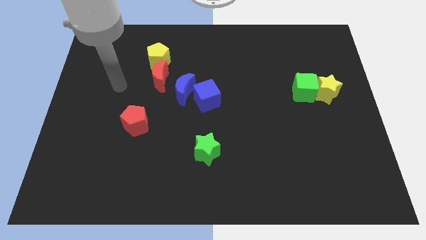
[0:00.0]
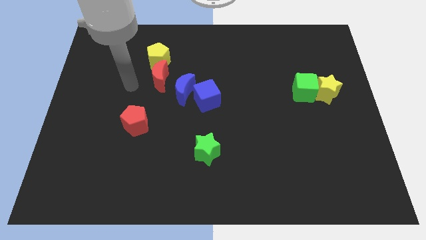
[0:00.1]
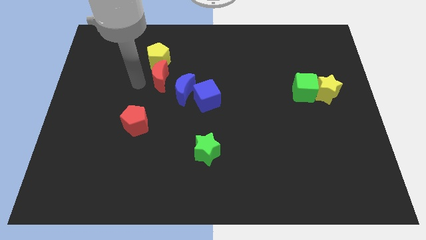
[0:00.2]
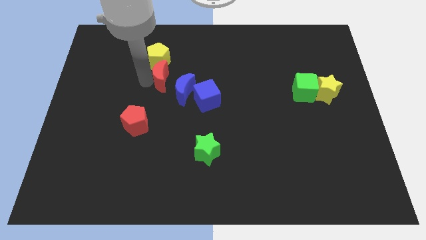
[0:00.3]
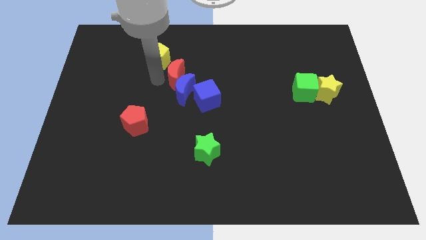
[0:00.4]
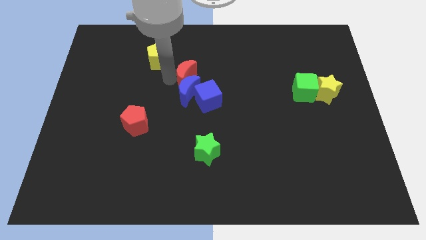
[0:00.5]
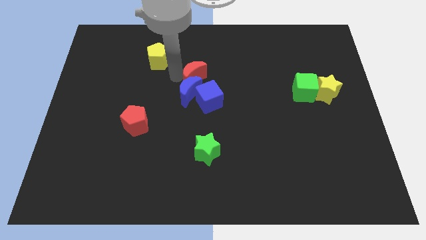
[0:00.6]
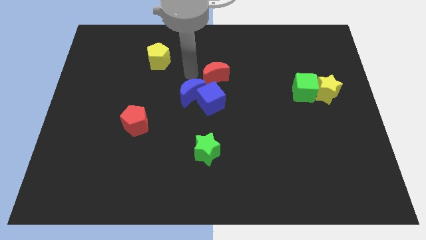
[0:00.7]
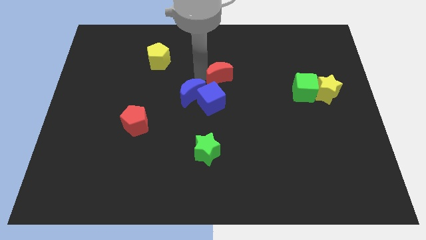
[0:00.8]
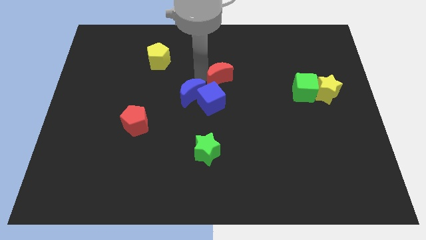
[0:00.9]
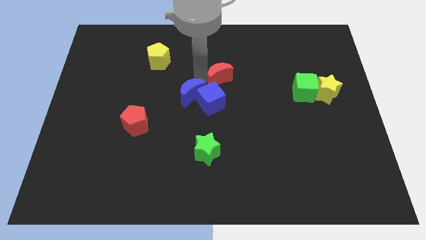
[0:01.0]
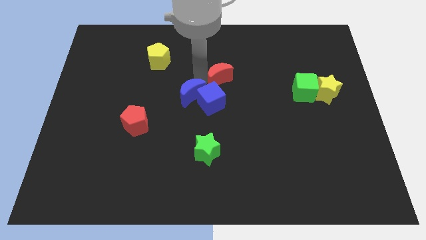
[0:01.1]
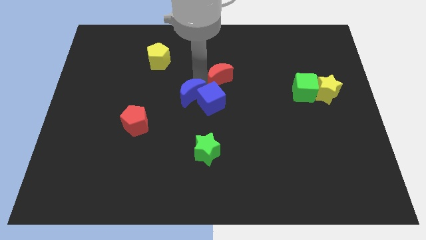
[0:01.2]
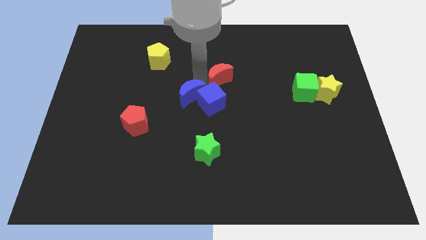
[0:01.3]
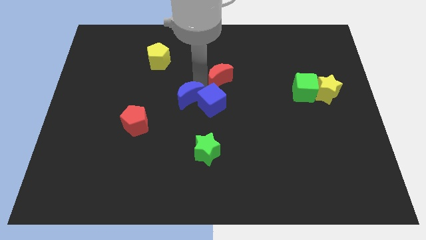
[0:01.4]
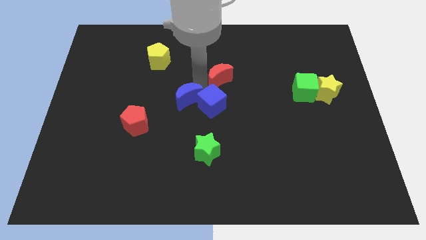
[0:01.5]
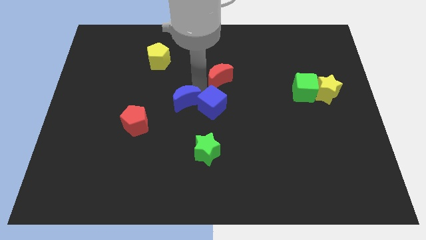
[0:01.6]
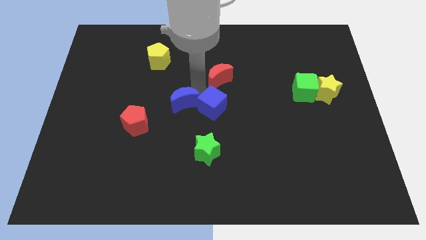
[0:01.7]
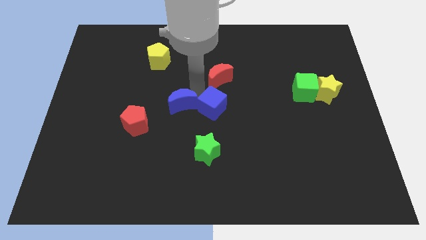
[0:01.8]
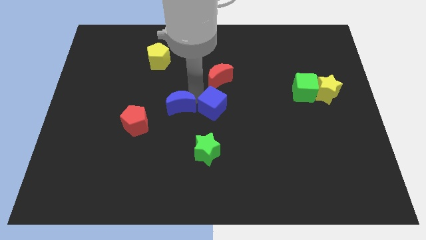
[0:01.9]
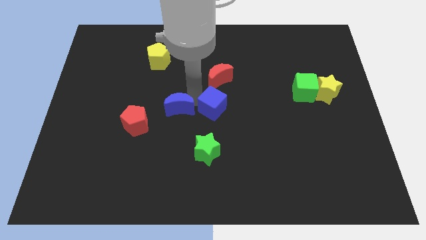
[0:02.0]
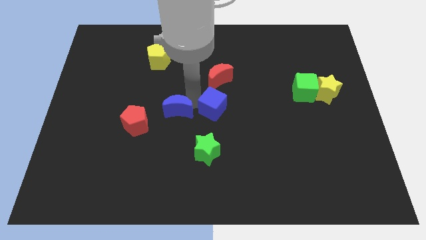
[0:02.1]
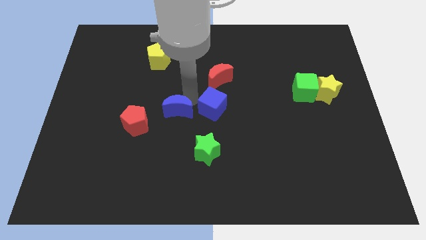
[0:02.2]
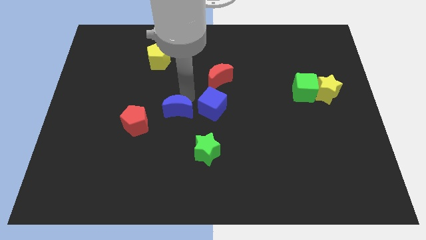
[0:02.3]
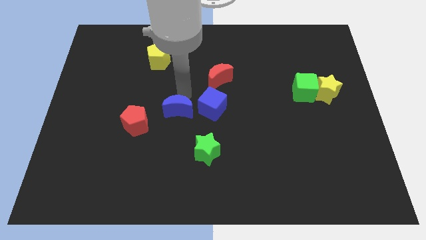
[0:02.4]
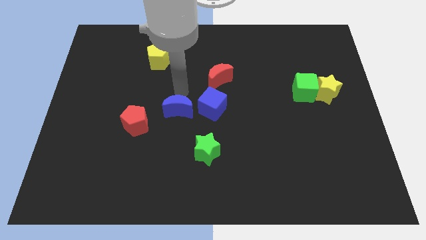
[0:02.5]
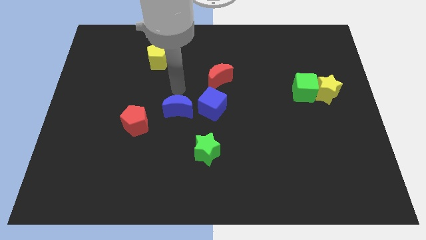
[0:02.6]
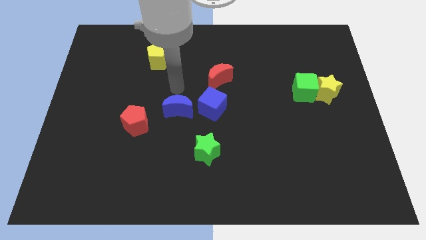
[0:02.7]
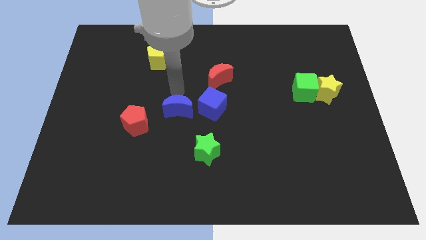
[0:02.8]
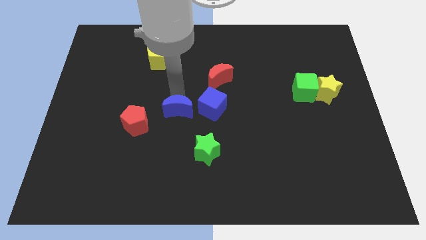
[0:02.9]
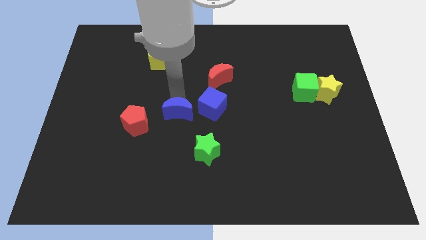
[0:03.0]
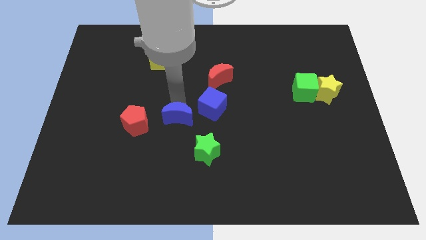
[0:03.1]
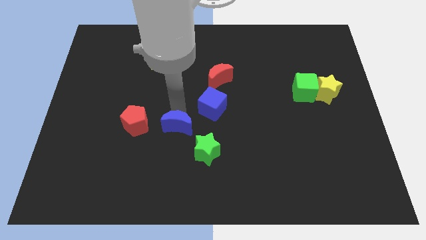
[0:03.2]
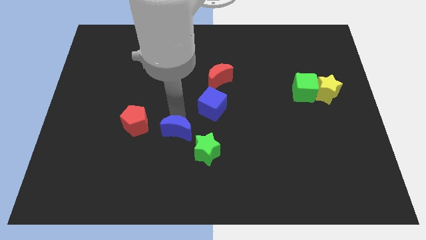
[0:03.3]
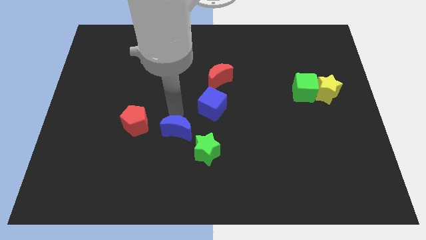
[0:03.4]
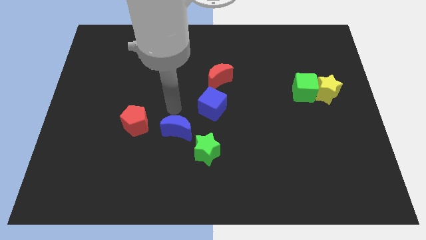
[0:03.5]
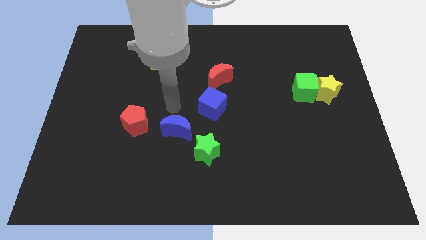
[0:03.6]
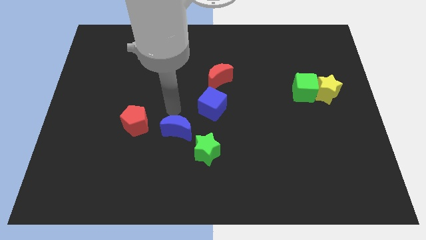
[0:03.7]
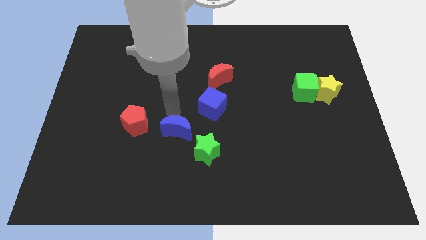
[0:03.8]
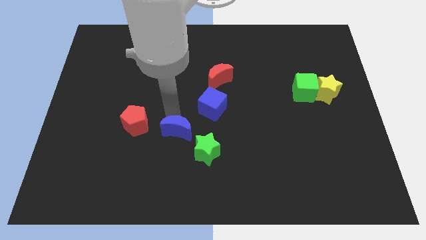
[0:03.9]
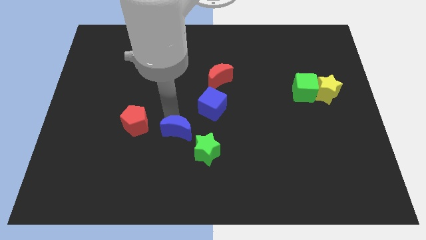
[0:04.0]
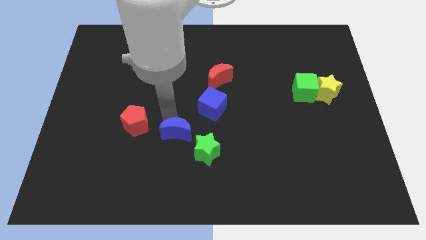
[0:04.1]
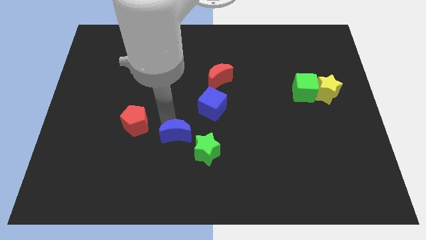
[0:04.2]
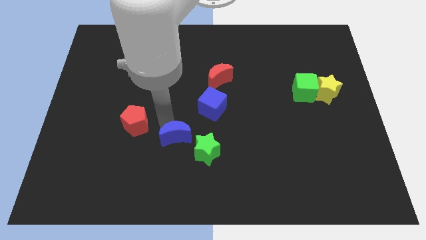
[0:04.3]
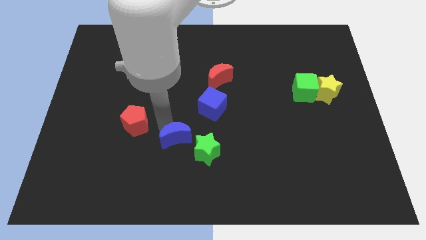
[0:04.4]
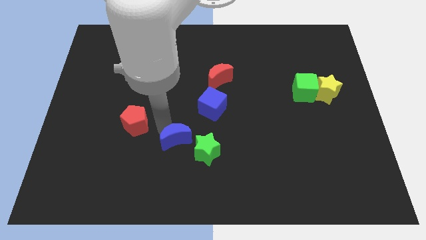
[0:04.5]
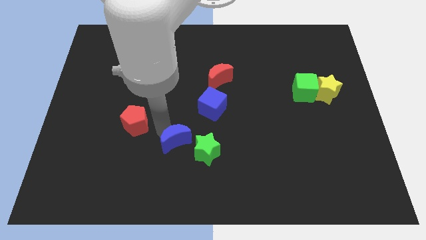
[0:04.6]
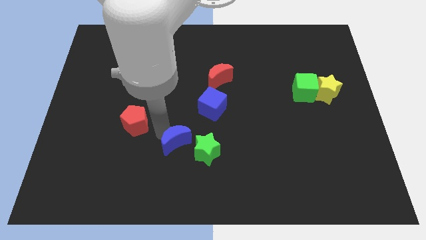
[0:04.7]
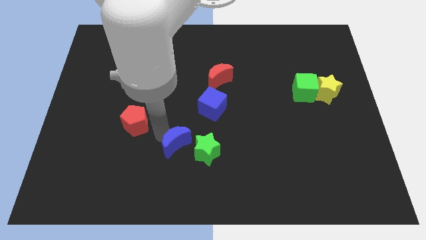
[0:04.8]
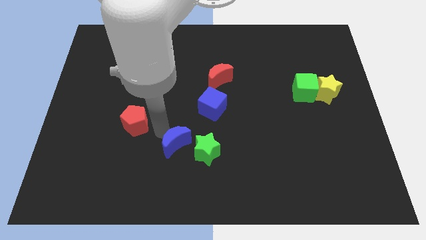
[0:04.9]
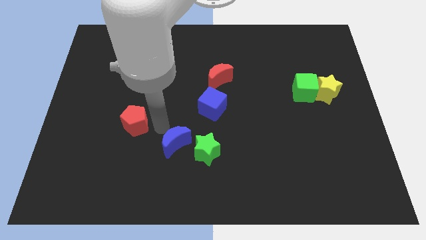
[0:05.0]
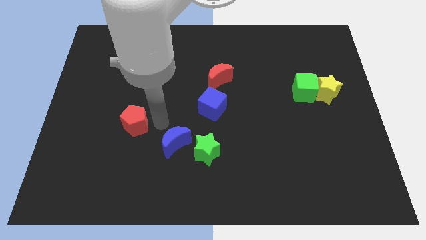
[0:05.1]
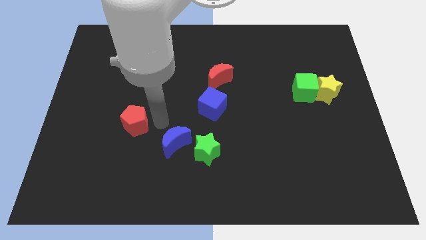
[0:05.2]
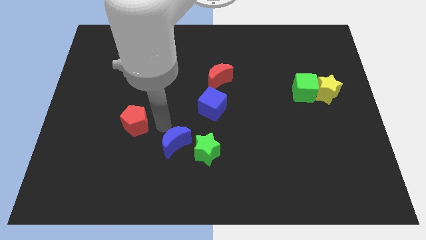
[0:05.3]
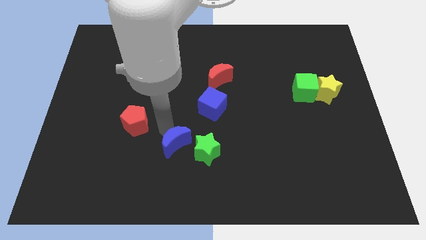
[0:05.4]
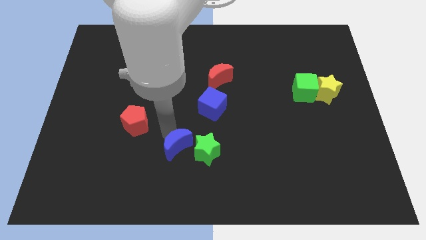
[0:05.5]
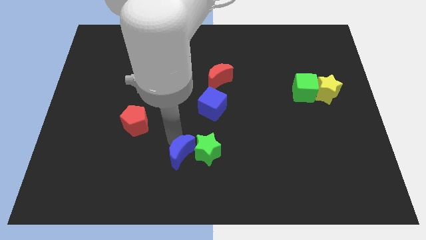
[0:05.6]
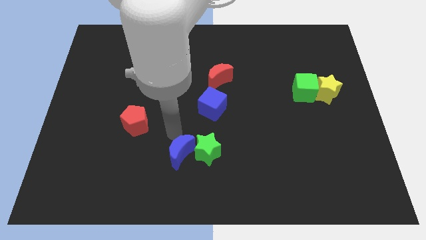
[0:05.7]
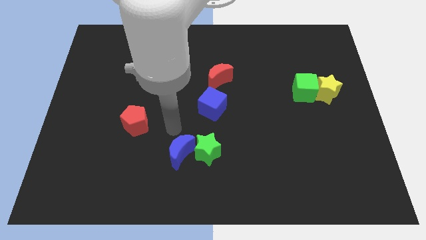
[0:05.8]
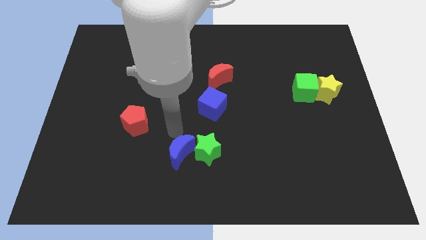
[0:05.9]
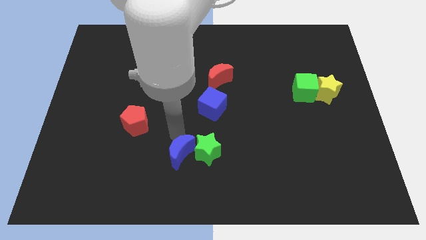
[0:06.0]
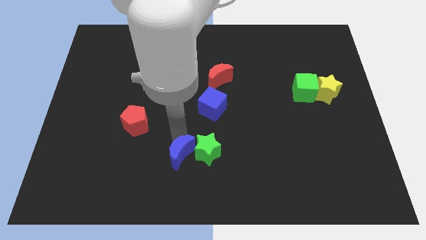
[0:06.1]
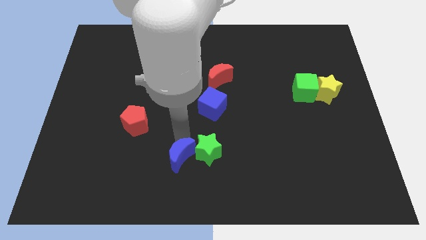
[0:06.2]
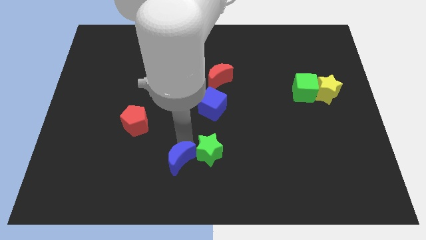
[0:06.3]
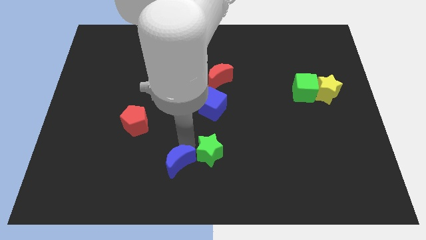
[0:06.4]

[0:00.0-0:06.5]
push the blue moon to the bottom side
